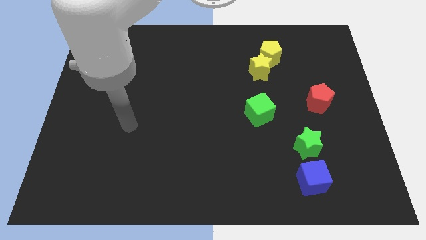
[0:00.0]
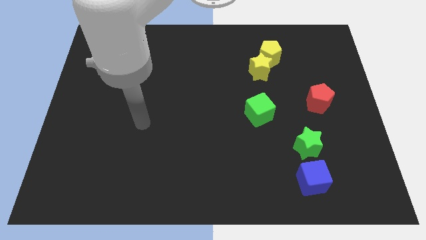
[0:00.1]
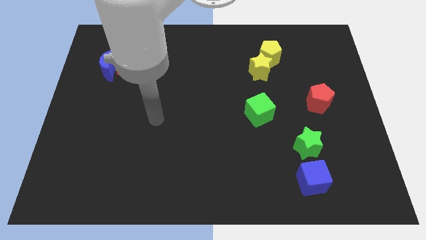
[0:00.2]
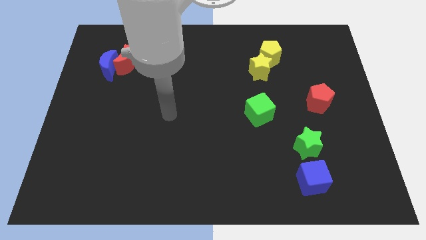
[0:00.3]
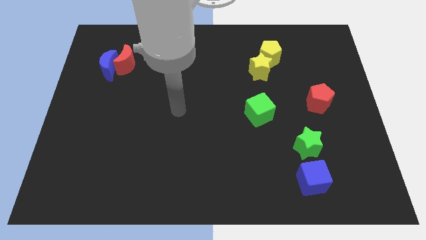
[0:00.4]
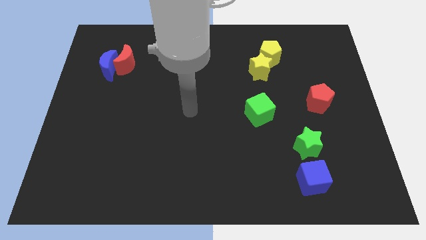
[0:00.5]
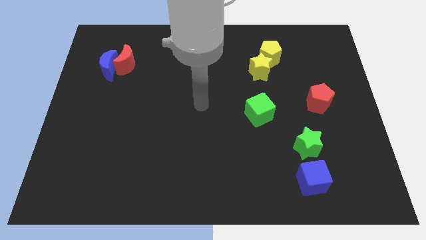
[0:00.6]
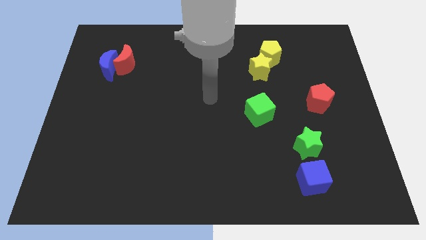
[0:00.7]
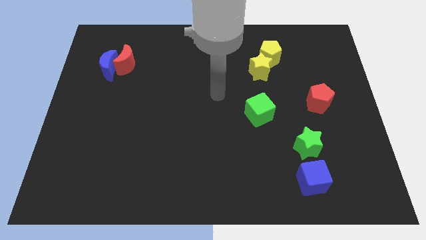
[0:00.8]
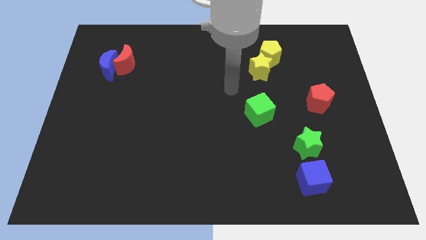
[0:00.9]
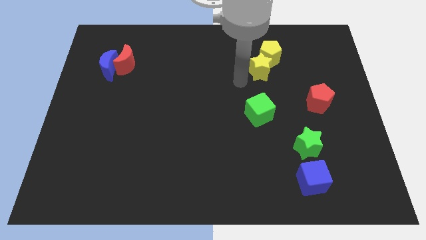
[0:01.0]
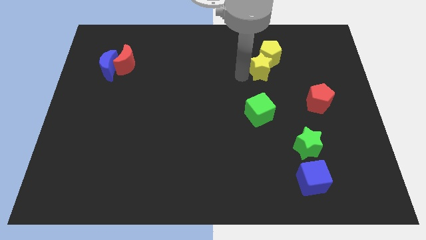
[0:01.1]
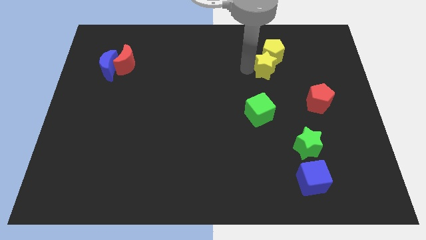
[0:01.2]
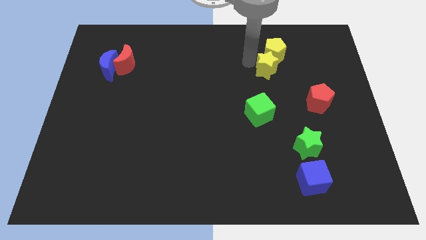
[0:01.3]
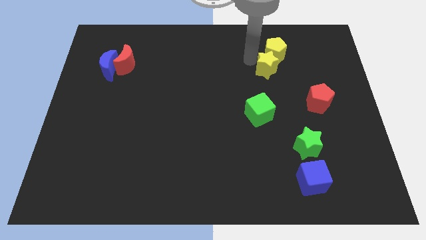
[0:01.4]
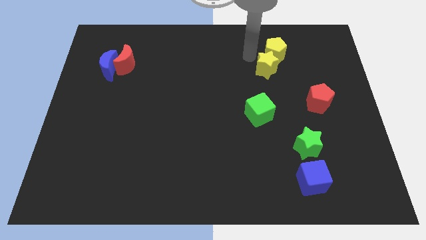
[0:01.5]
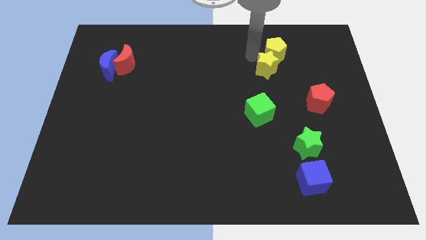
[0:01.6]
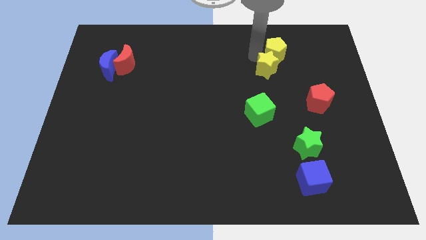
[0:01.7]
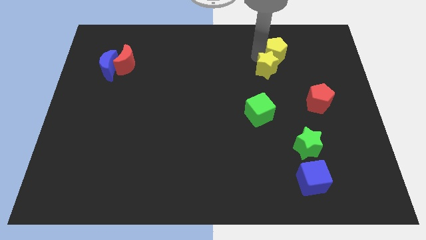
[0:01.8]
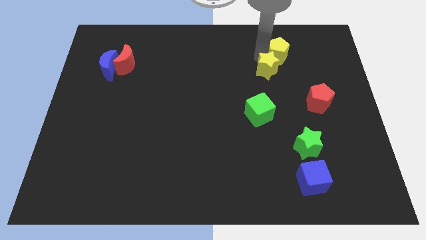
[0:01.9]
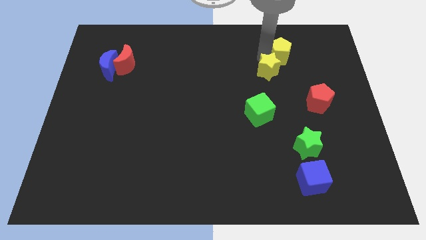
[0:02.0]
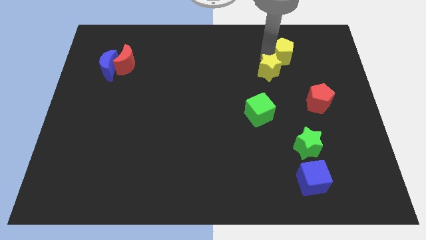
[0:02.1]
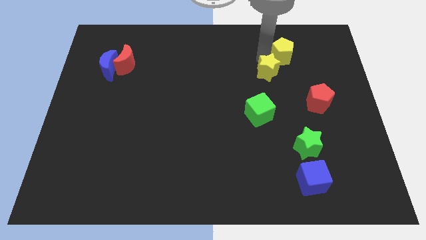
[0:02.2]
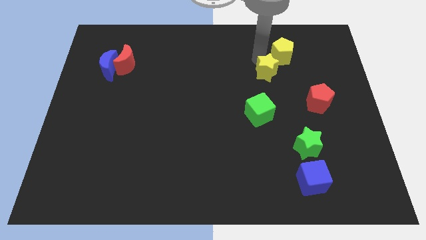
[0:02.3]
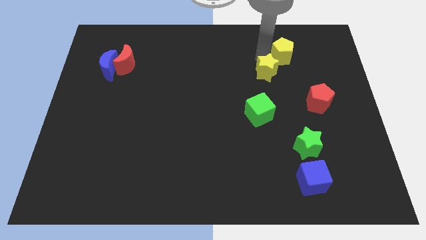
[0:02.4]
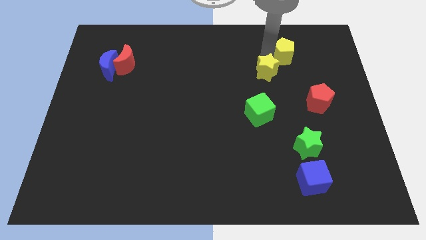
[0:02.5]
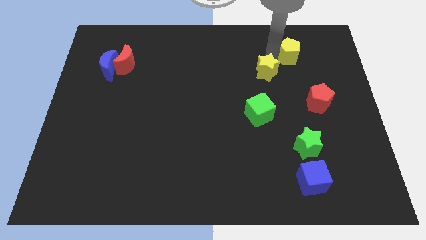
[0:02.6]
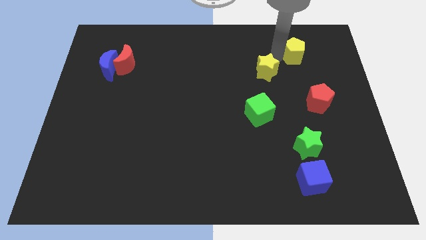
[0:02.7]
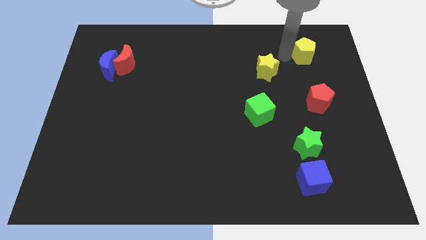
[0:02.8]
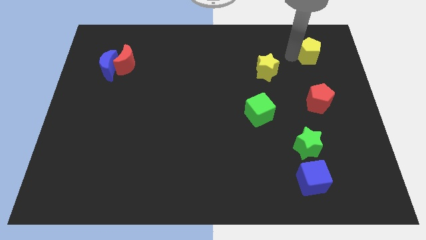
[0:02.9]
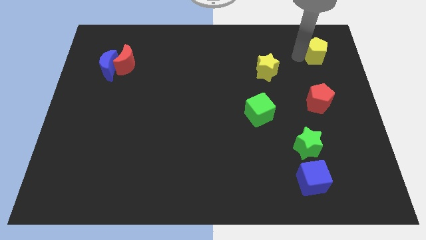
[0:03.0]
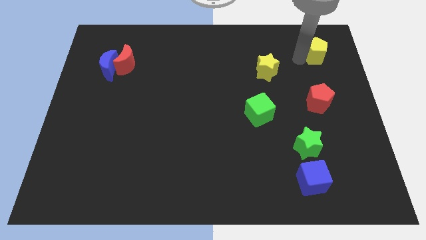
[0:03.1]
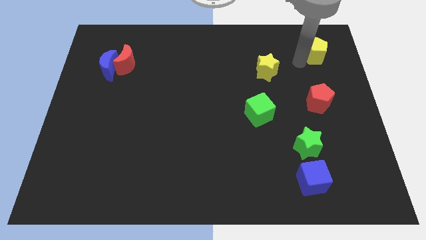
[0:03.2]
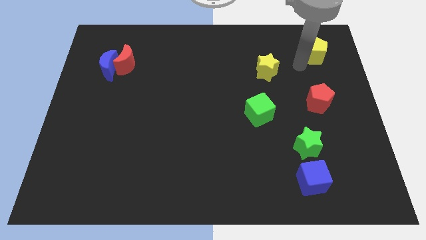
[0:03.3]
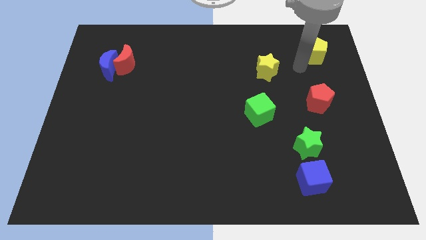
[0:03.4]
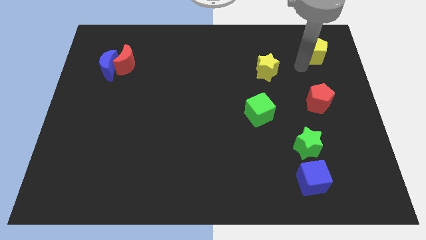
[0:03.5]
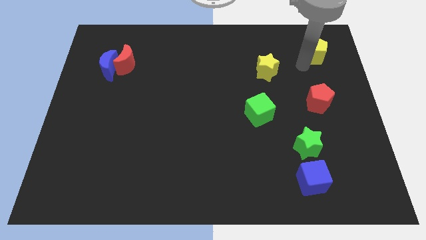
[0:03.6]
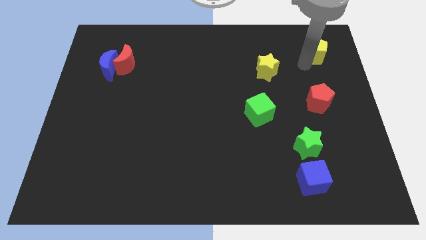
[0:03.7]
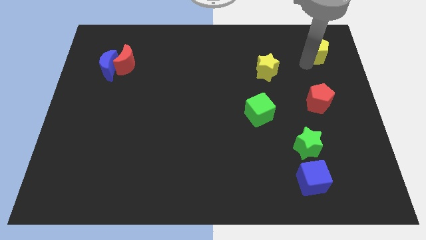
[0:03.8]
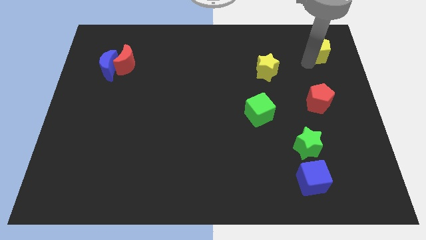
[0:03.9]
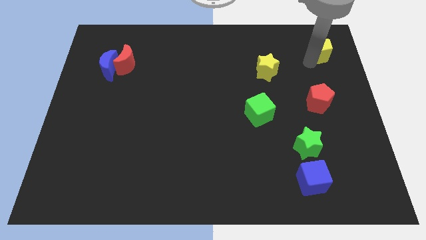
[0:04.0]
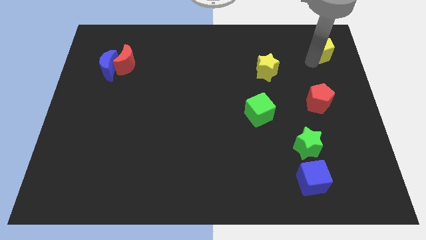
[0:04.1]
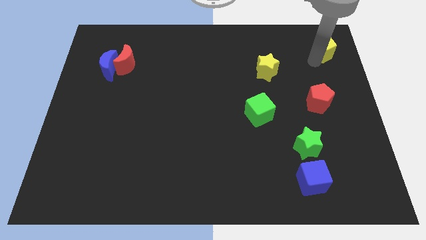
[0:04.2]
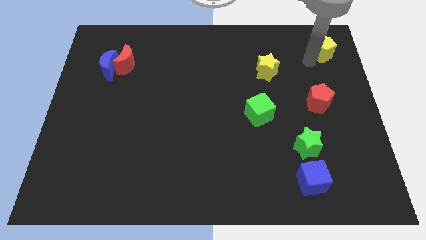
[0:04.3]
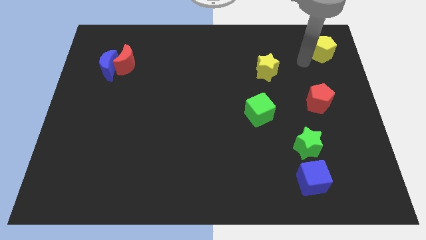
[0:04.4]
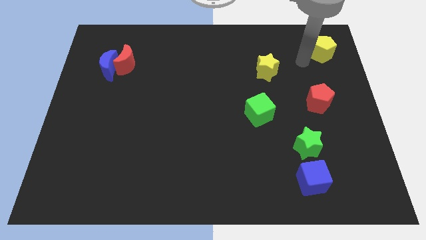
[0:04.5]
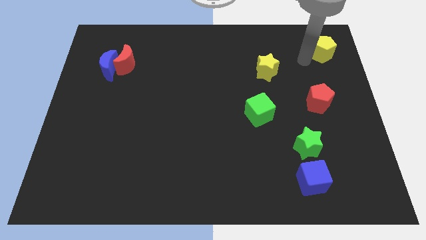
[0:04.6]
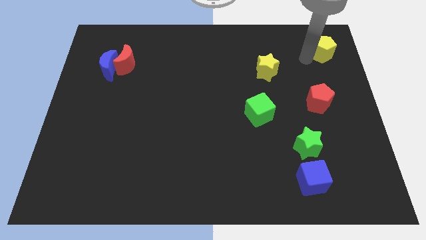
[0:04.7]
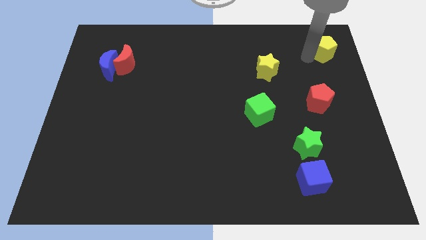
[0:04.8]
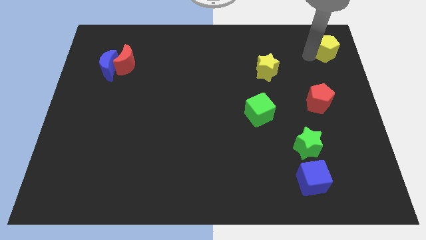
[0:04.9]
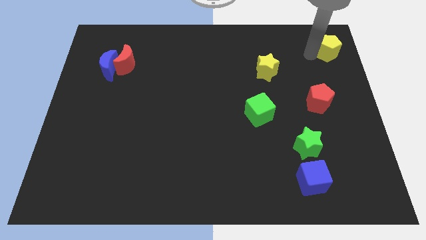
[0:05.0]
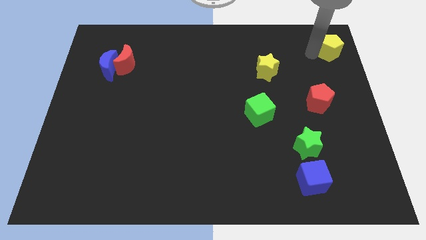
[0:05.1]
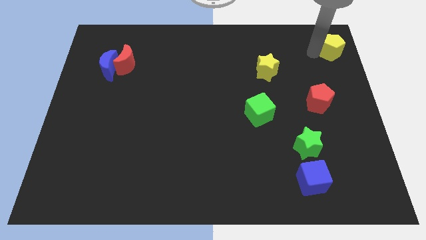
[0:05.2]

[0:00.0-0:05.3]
move the yellow pentagon to the top right
